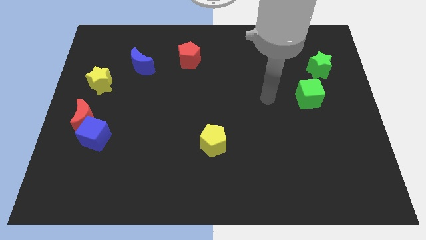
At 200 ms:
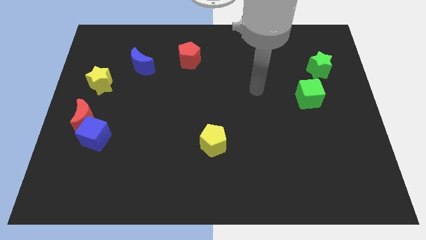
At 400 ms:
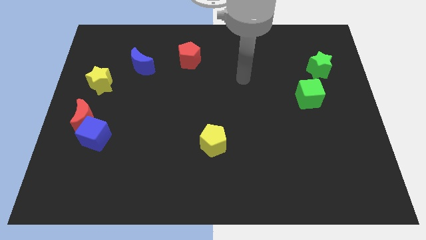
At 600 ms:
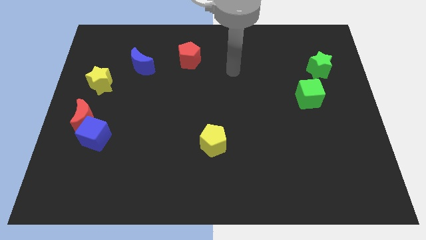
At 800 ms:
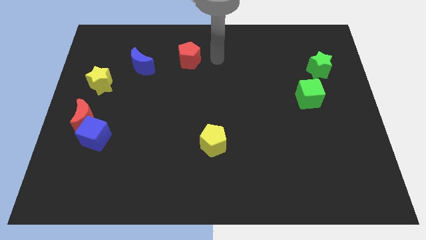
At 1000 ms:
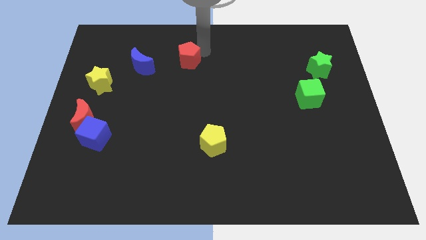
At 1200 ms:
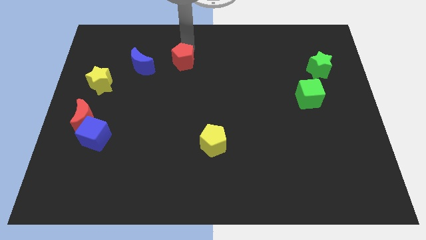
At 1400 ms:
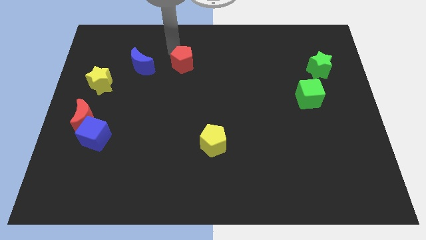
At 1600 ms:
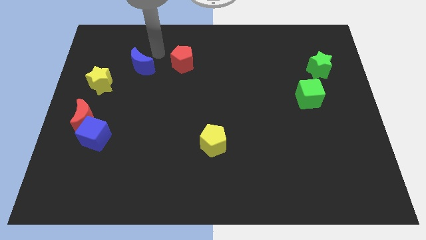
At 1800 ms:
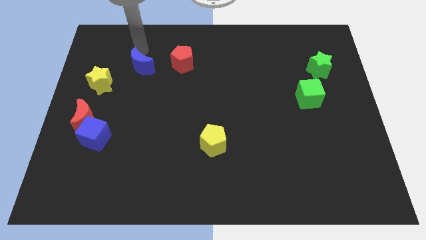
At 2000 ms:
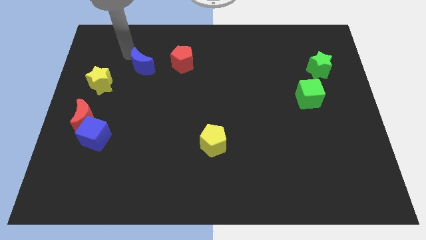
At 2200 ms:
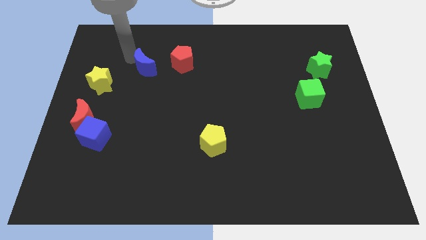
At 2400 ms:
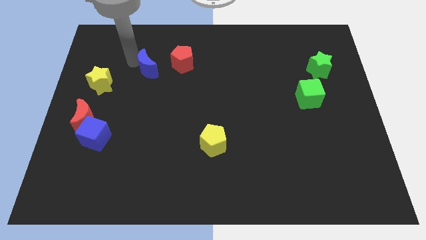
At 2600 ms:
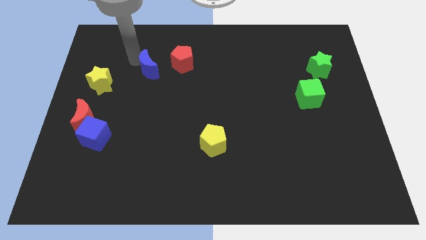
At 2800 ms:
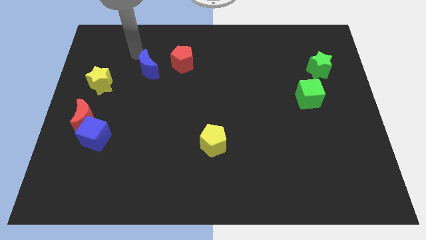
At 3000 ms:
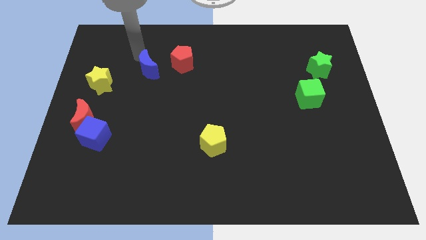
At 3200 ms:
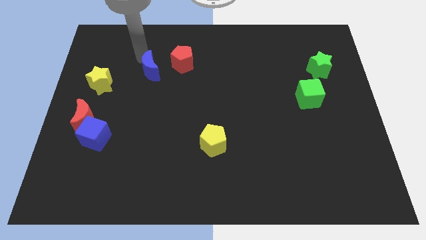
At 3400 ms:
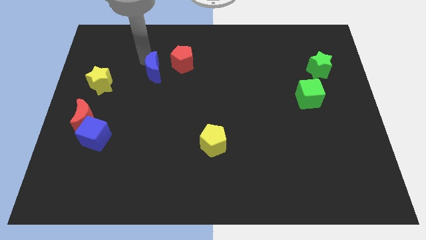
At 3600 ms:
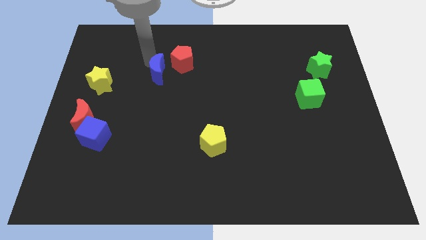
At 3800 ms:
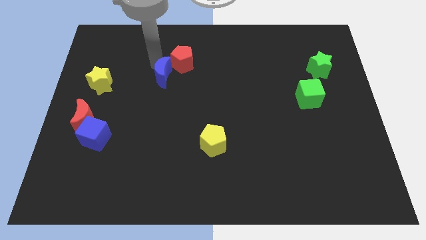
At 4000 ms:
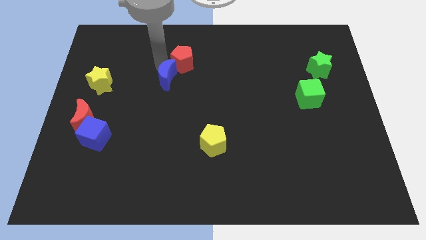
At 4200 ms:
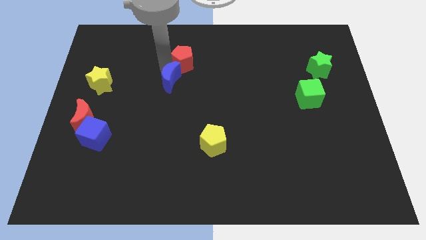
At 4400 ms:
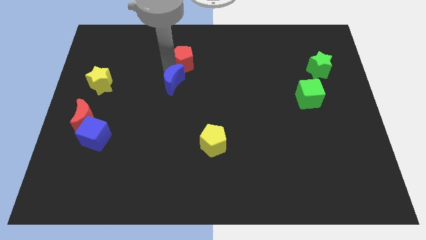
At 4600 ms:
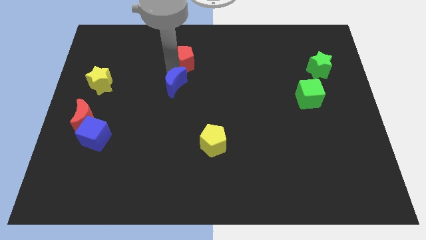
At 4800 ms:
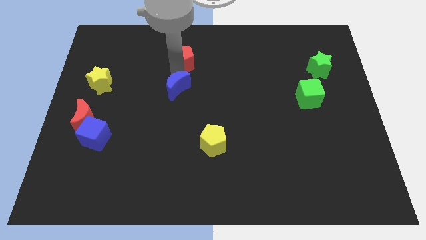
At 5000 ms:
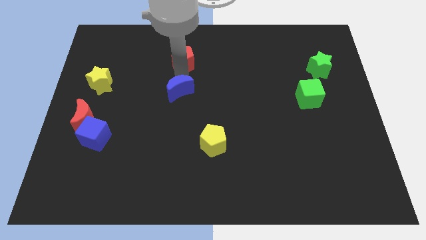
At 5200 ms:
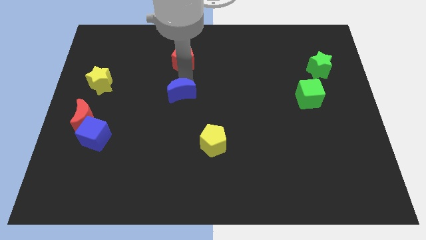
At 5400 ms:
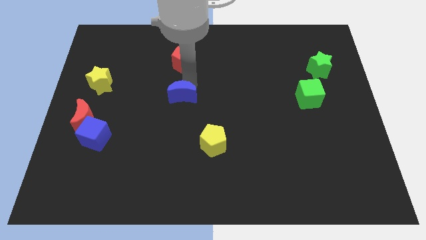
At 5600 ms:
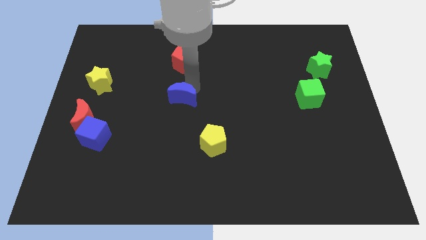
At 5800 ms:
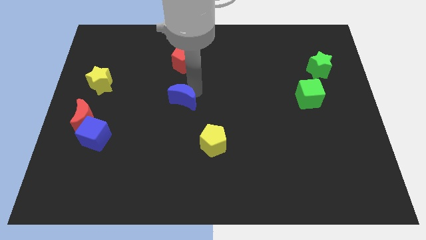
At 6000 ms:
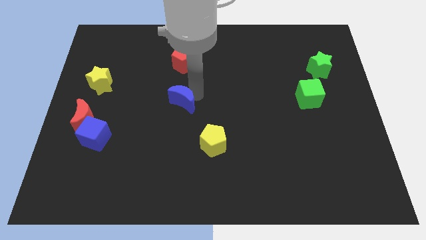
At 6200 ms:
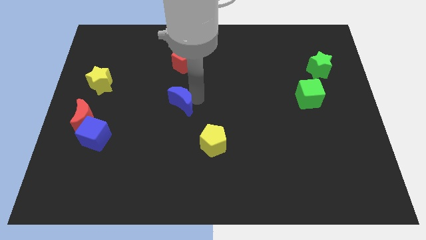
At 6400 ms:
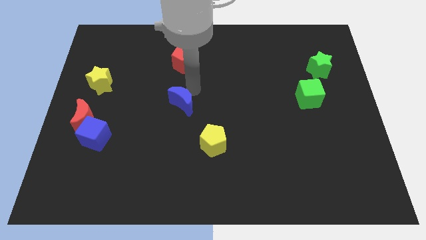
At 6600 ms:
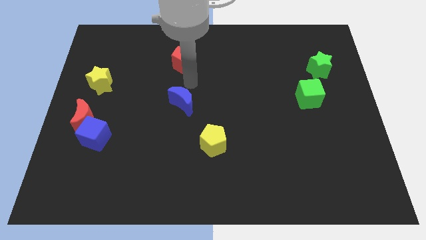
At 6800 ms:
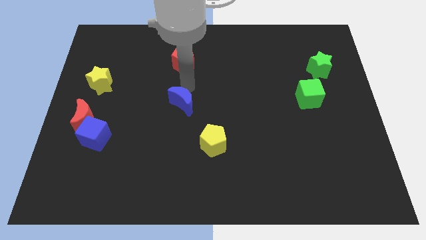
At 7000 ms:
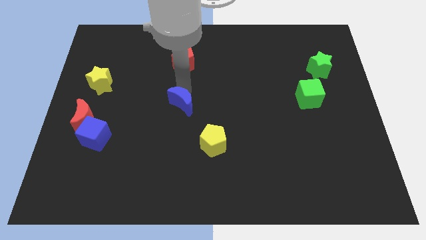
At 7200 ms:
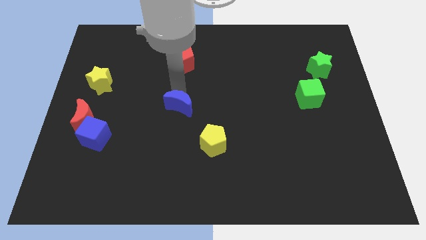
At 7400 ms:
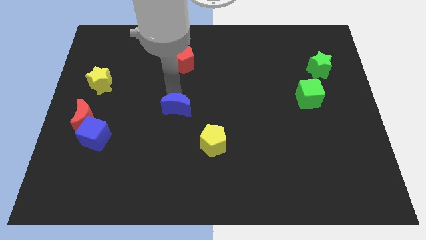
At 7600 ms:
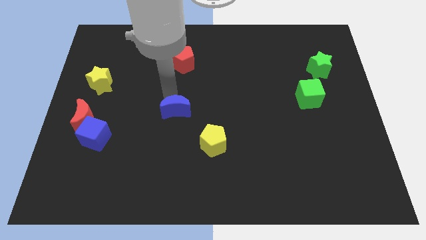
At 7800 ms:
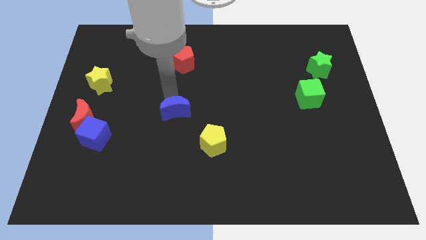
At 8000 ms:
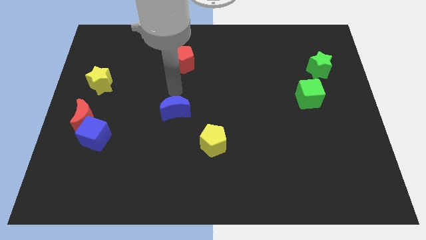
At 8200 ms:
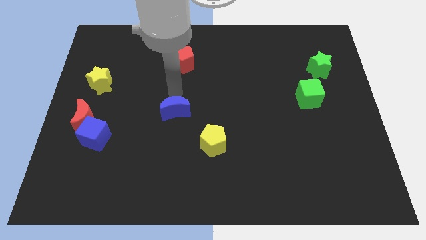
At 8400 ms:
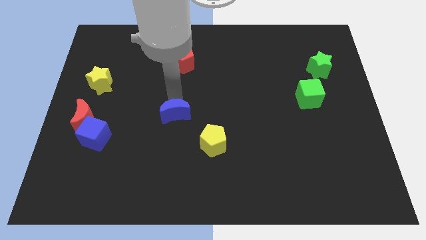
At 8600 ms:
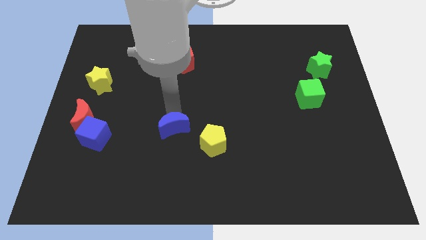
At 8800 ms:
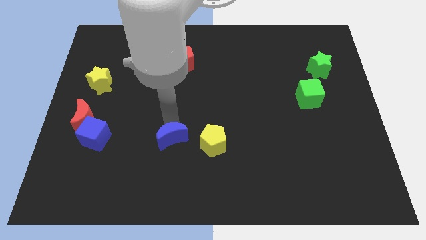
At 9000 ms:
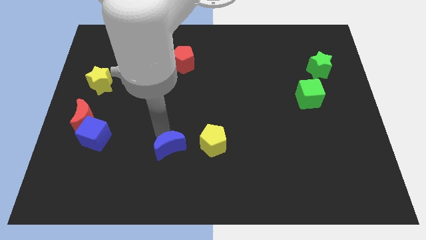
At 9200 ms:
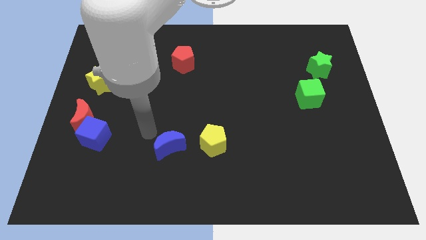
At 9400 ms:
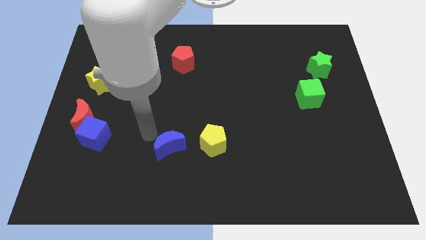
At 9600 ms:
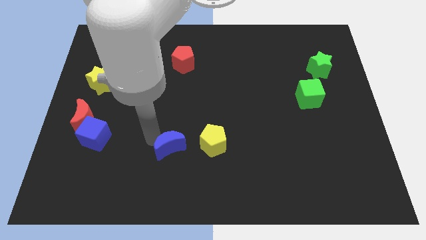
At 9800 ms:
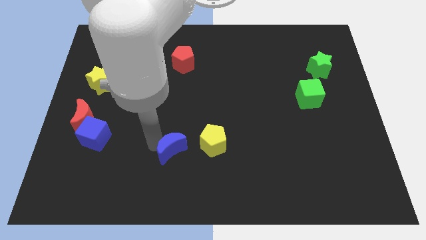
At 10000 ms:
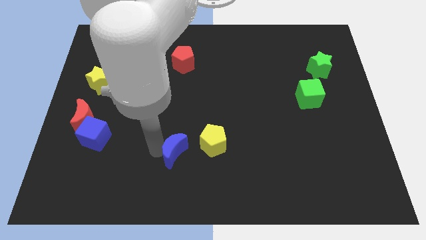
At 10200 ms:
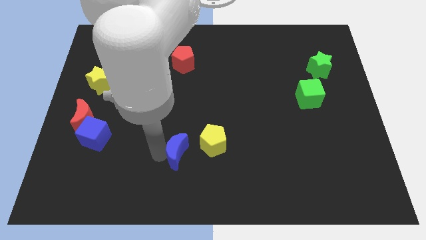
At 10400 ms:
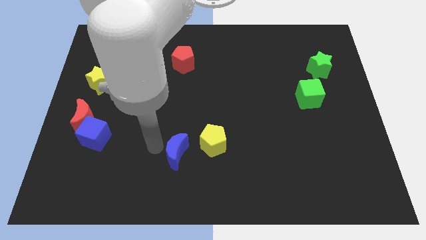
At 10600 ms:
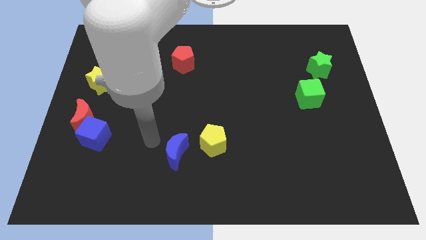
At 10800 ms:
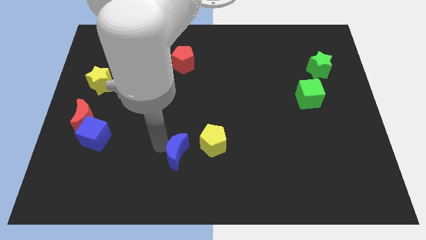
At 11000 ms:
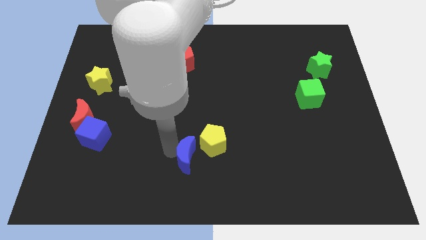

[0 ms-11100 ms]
move the blue moon to the bottom
